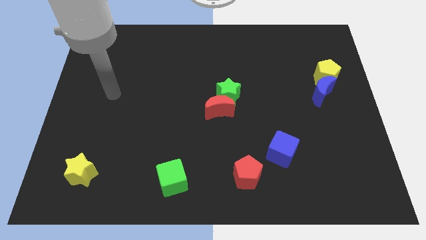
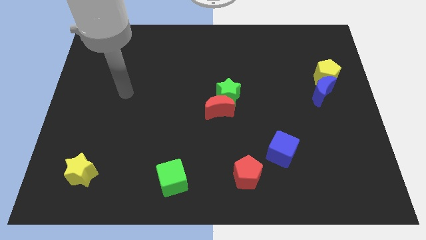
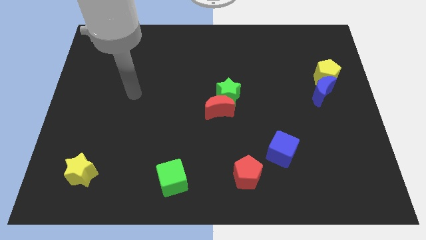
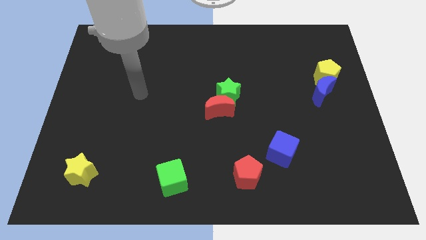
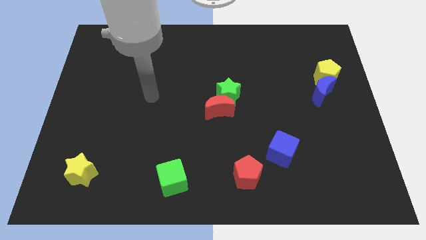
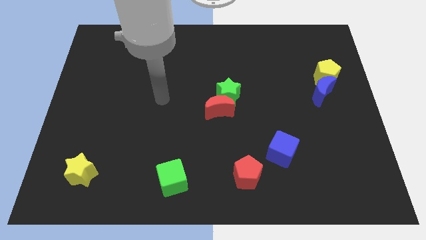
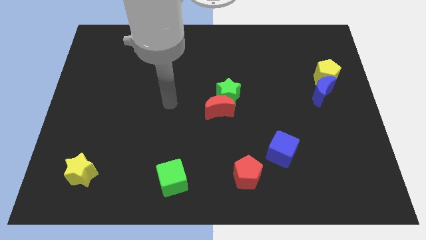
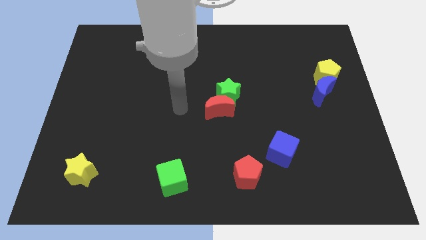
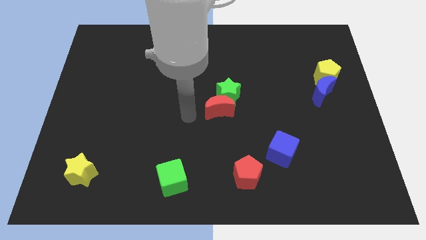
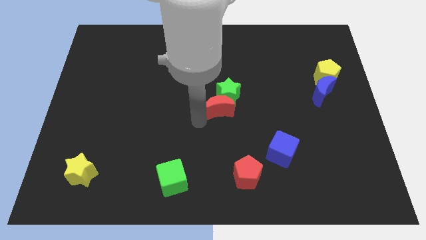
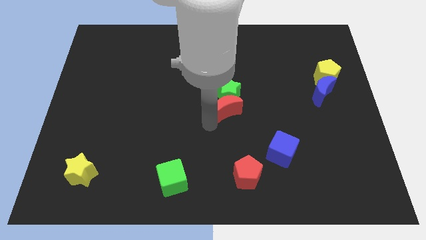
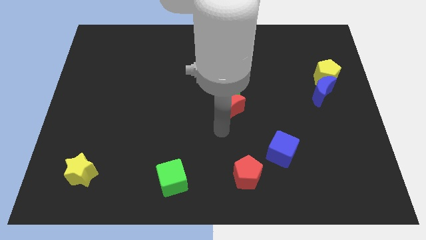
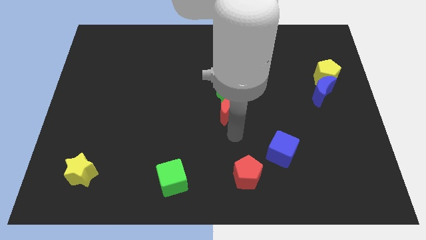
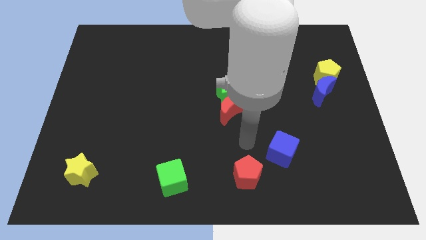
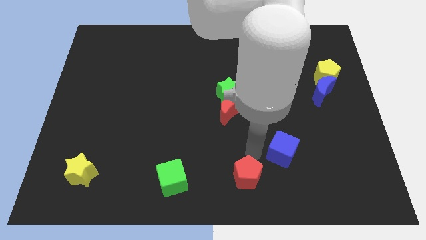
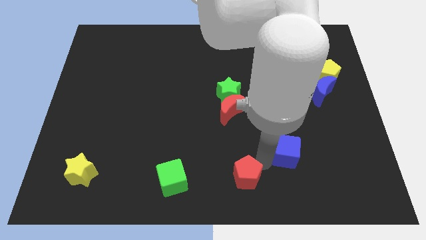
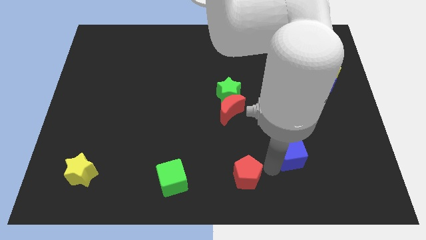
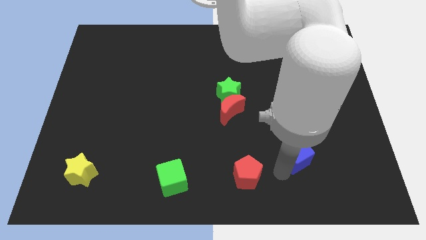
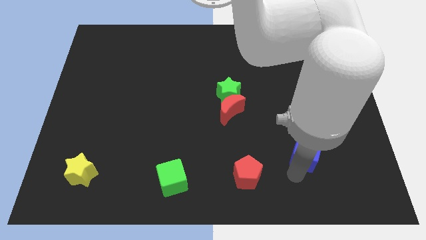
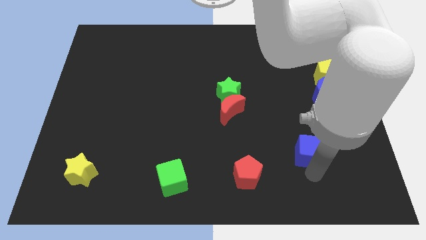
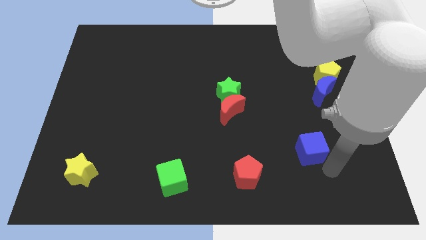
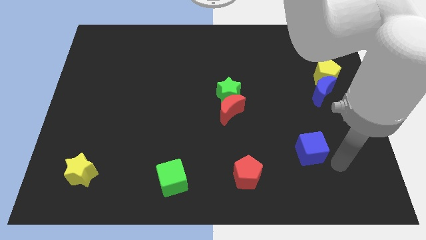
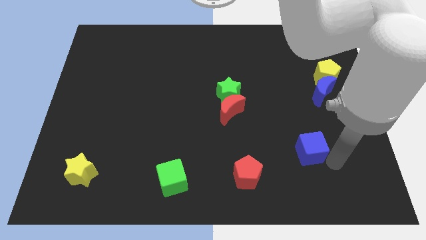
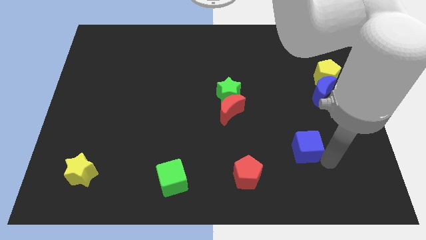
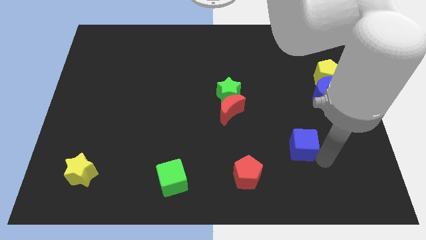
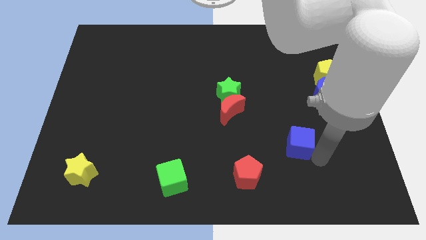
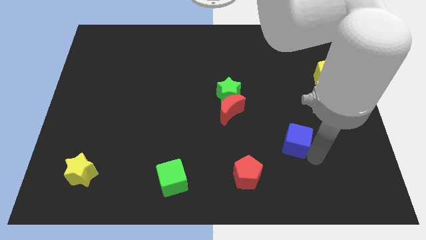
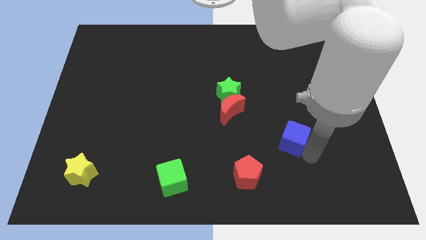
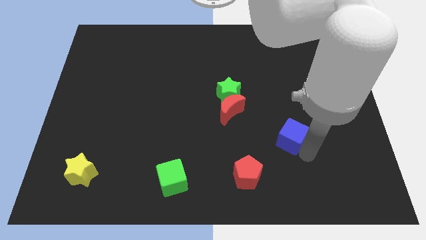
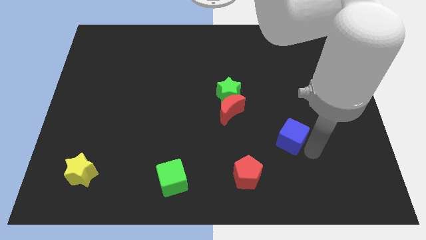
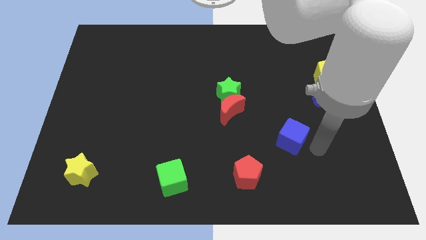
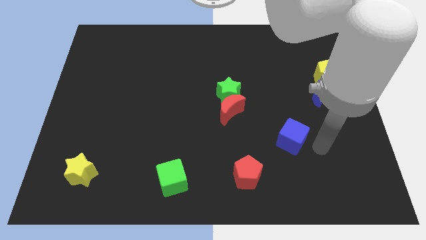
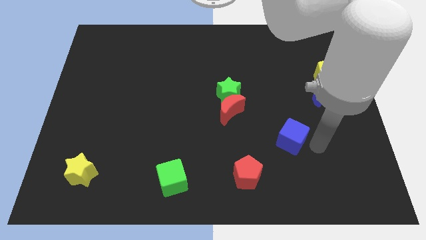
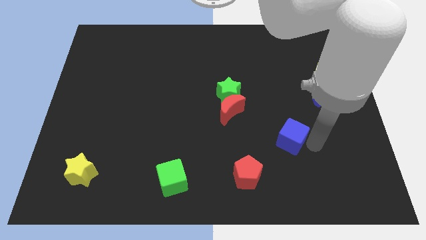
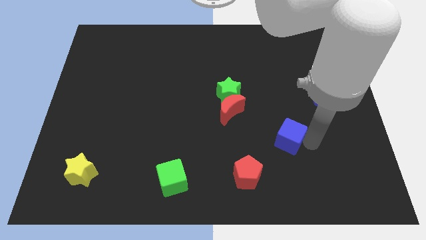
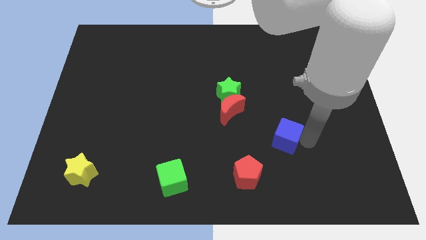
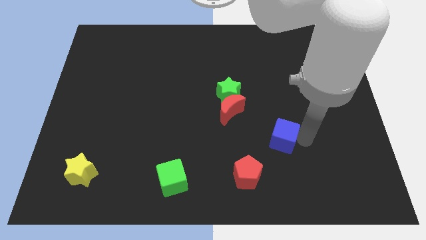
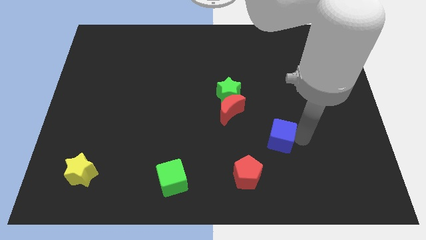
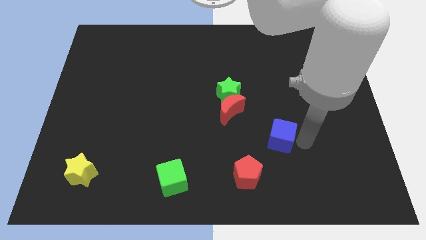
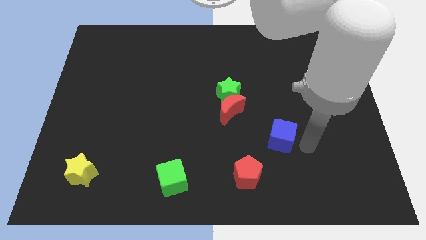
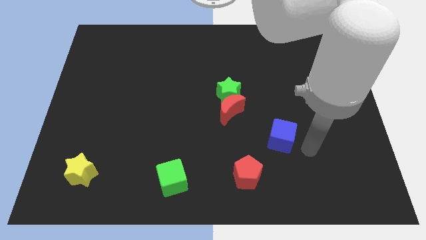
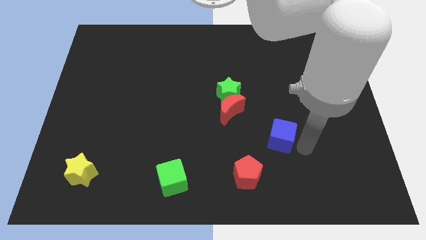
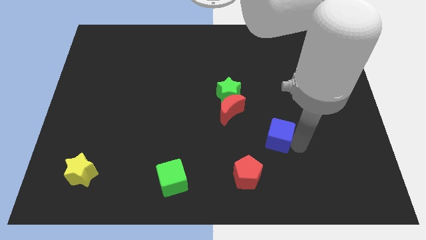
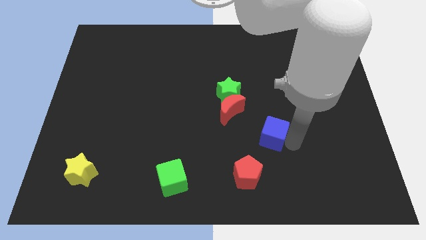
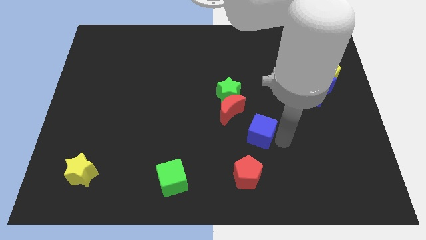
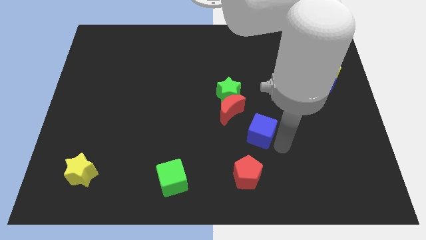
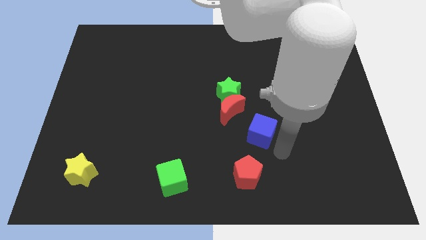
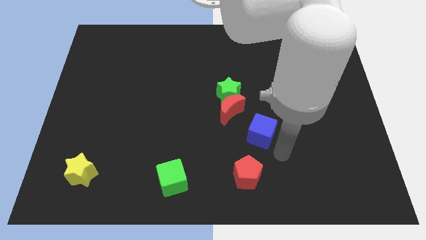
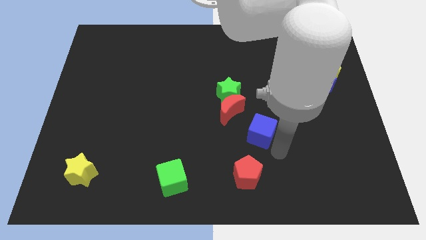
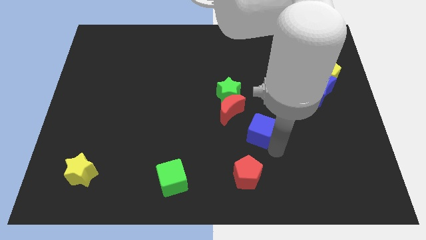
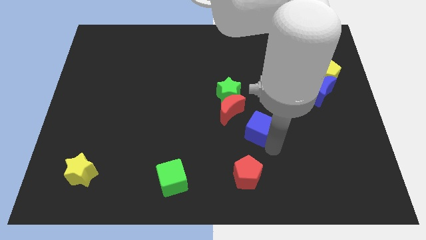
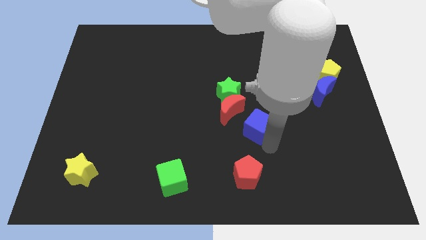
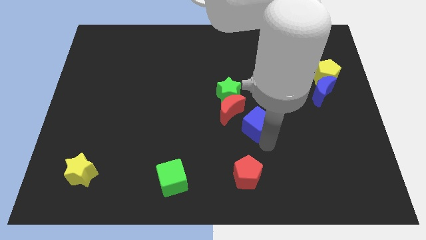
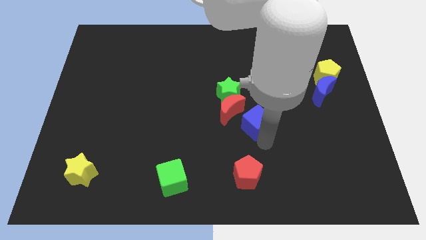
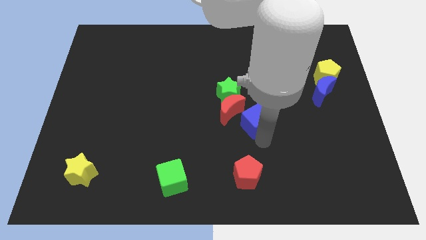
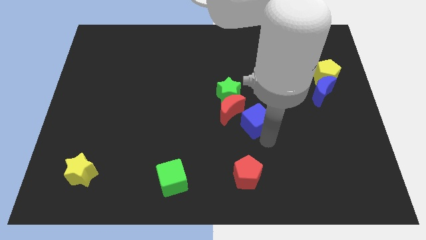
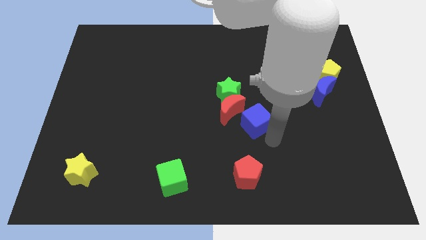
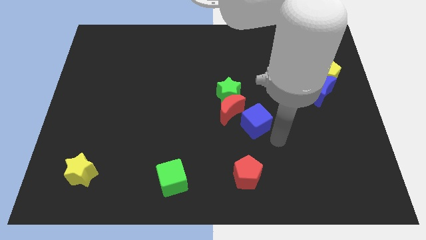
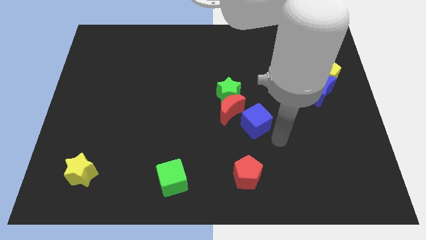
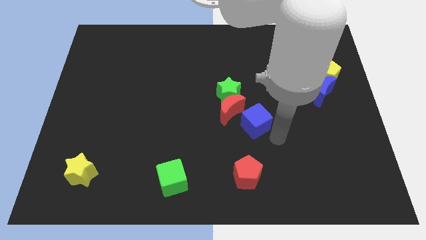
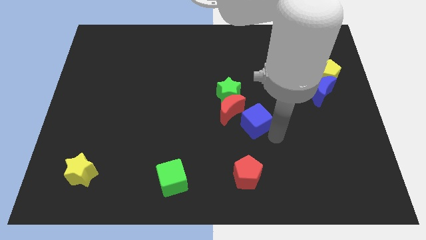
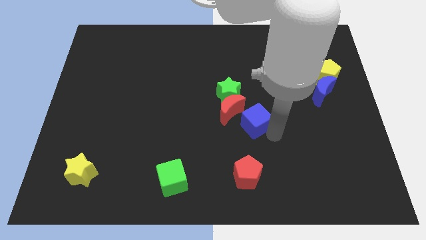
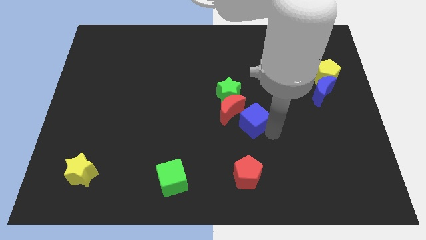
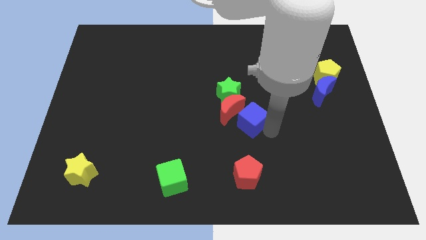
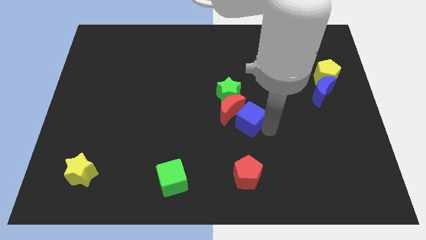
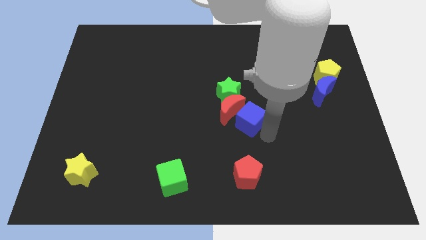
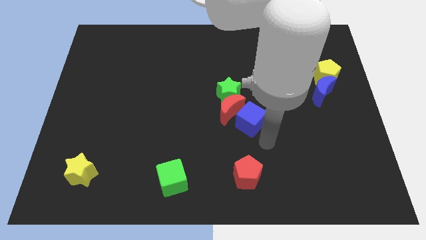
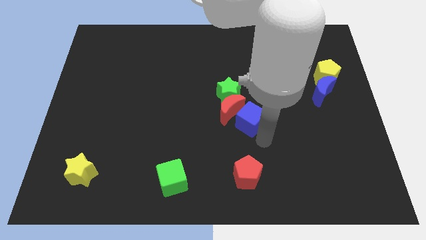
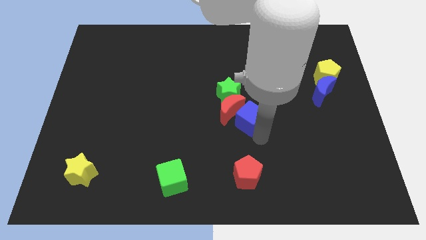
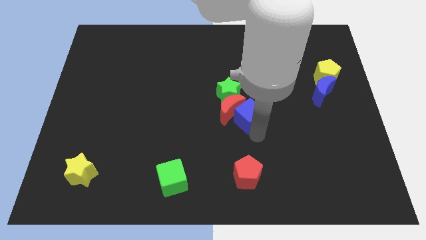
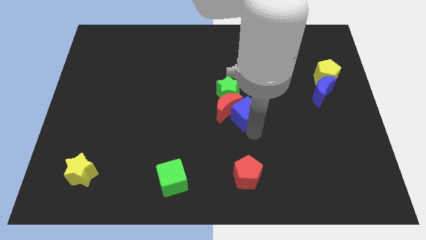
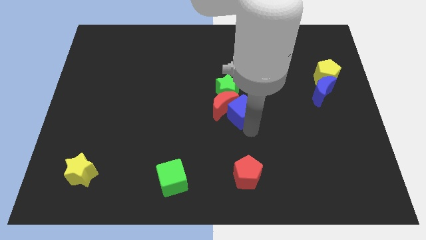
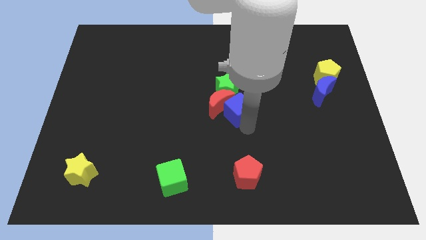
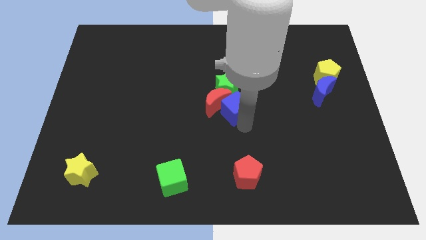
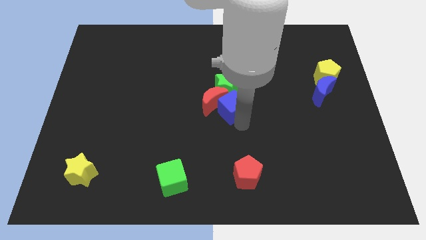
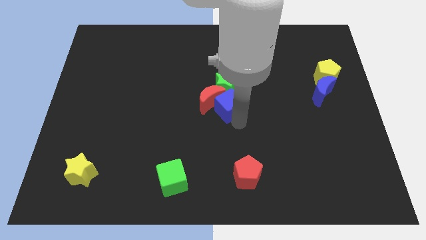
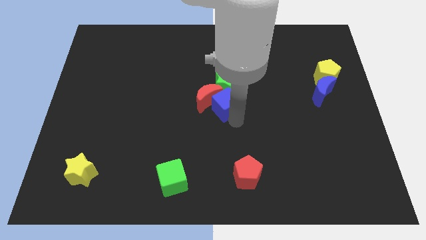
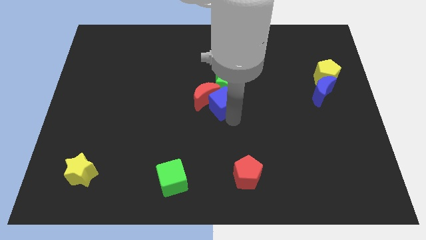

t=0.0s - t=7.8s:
slide the blue cube next to the green star
